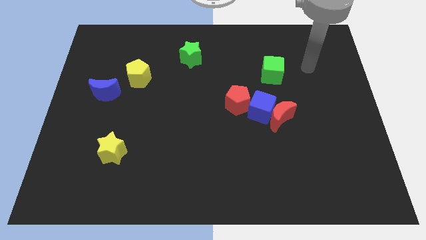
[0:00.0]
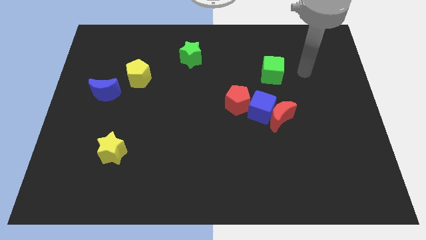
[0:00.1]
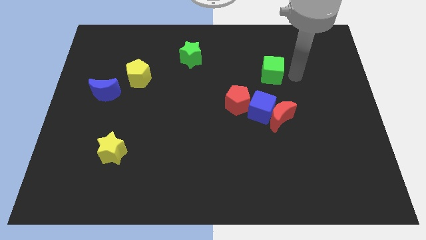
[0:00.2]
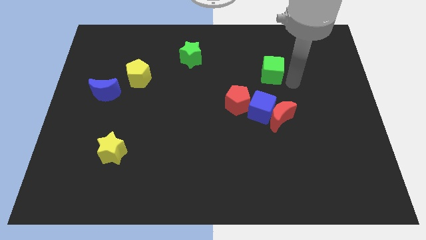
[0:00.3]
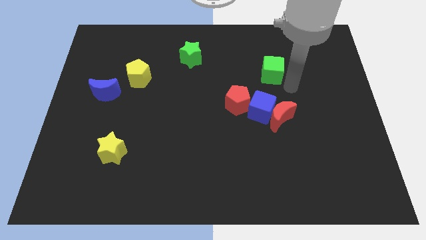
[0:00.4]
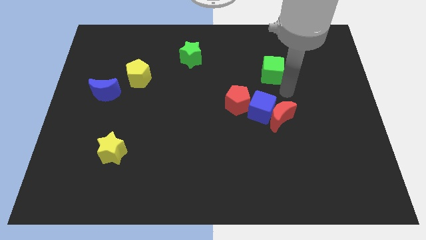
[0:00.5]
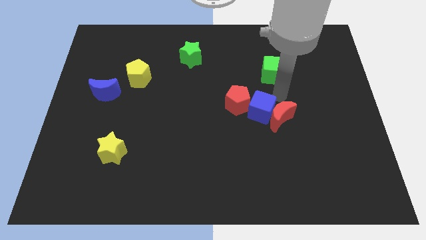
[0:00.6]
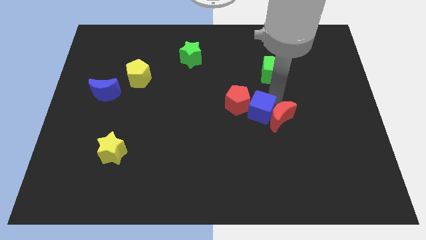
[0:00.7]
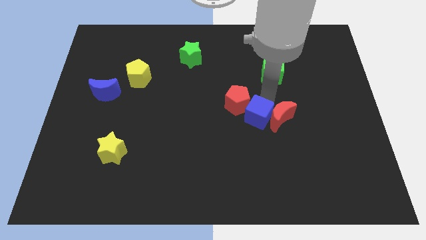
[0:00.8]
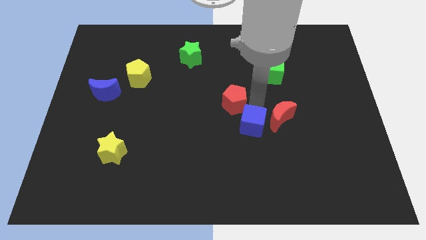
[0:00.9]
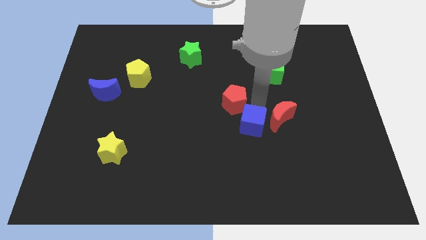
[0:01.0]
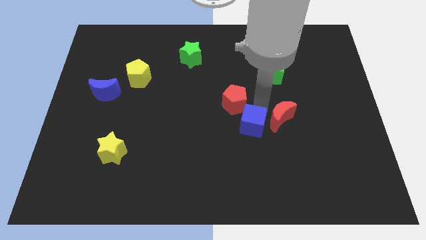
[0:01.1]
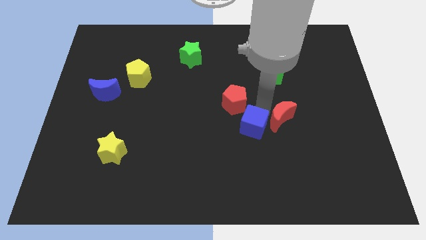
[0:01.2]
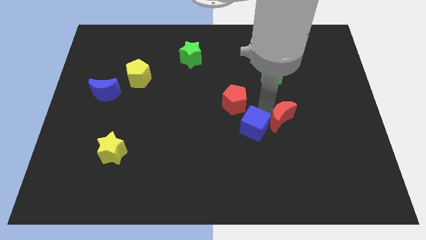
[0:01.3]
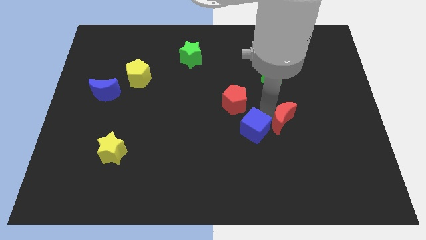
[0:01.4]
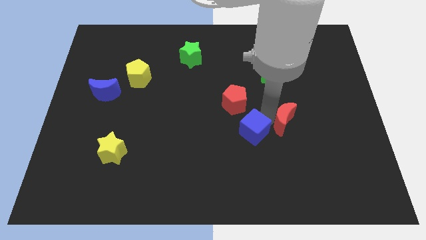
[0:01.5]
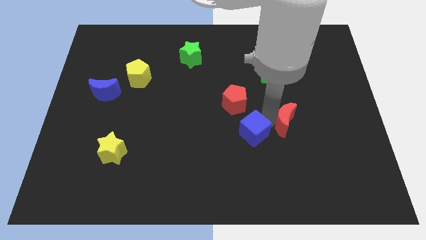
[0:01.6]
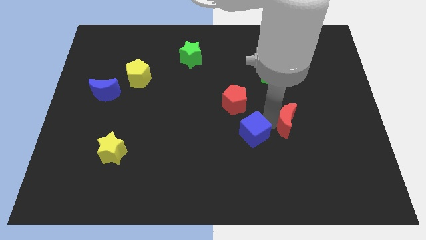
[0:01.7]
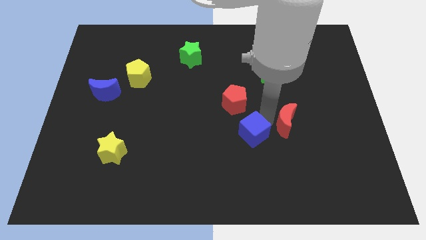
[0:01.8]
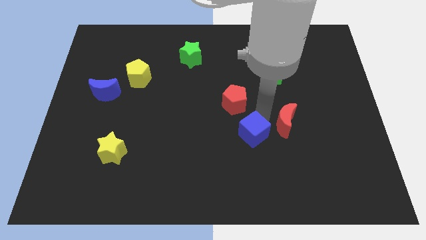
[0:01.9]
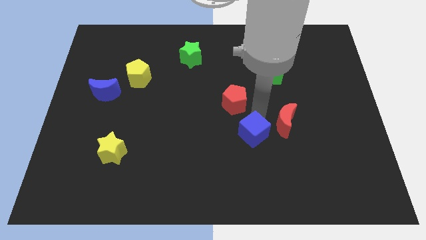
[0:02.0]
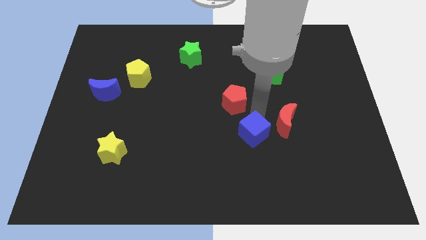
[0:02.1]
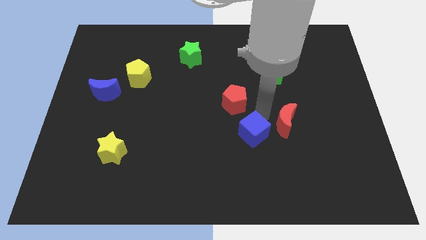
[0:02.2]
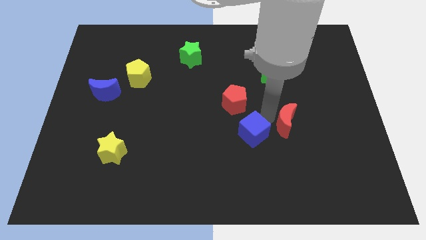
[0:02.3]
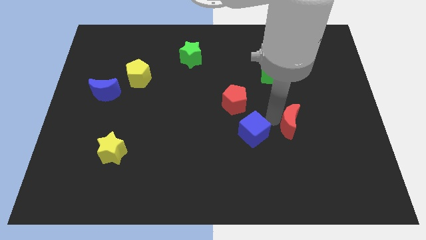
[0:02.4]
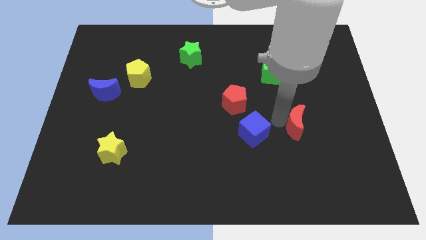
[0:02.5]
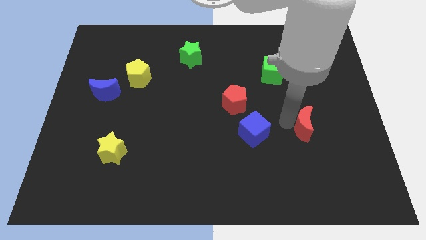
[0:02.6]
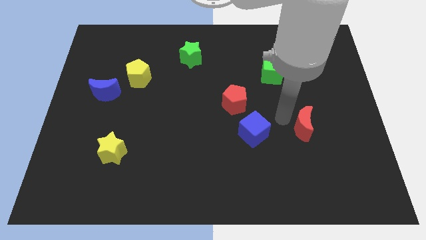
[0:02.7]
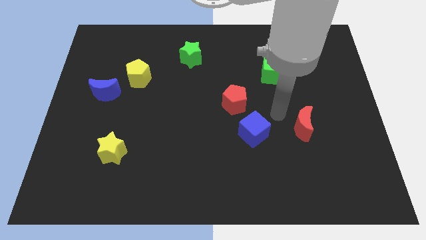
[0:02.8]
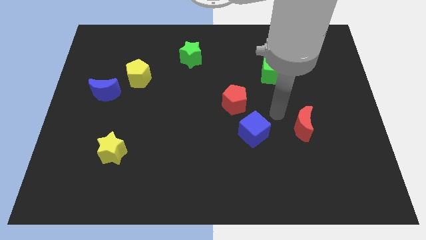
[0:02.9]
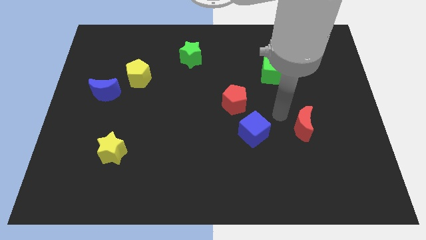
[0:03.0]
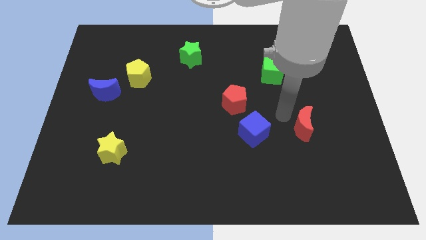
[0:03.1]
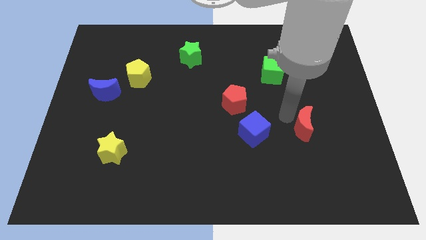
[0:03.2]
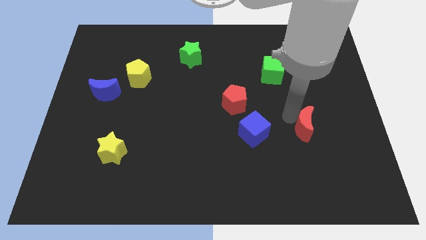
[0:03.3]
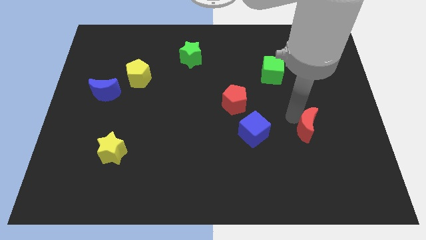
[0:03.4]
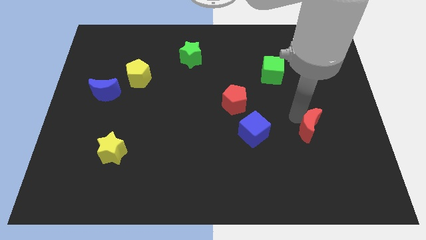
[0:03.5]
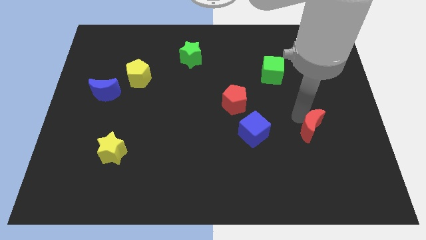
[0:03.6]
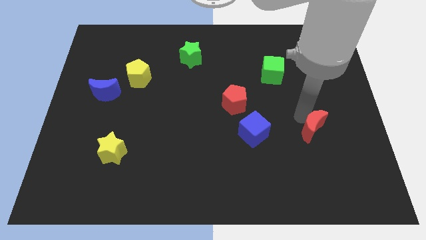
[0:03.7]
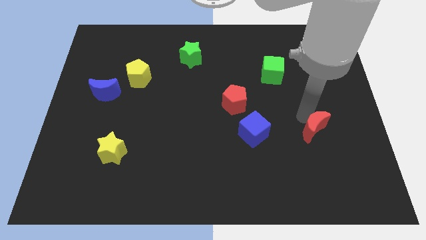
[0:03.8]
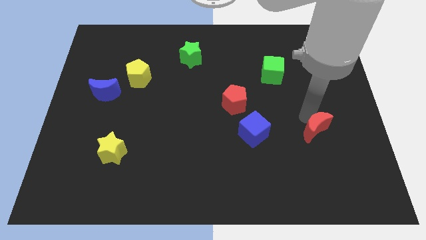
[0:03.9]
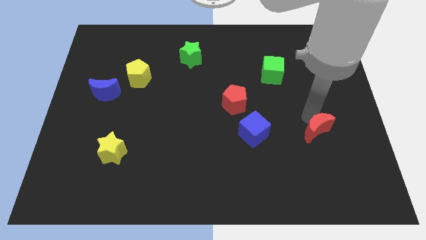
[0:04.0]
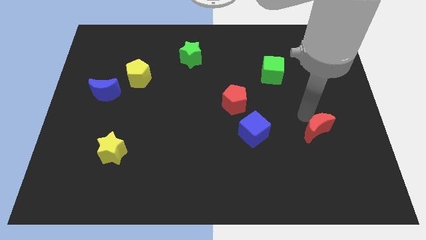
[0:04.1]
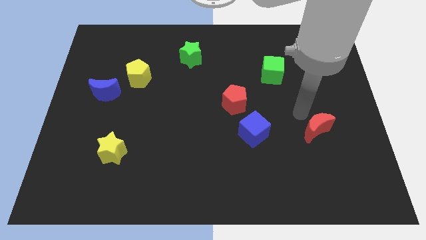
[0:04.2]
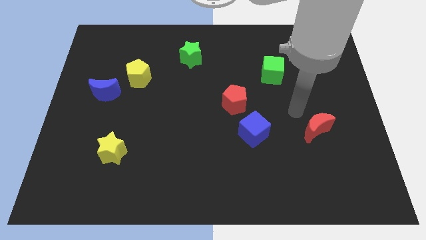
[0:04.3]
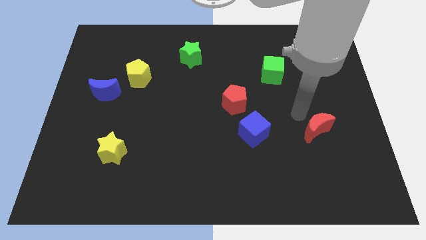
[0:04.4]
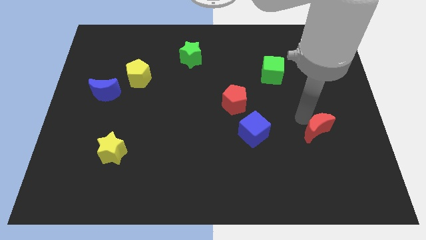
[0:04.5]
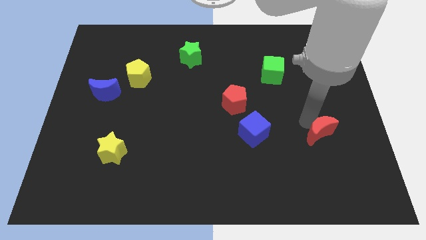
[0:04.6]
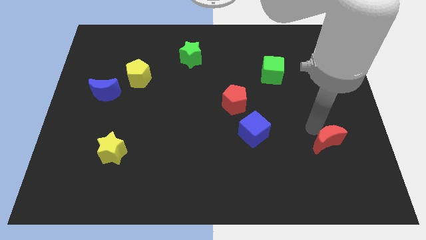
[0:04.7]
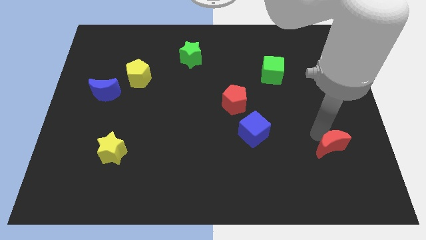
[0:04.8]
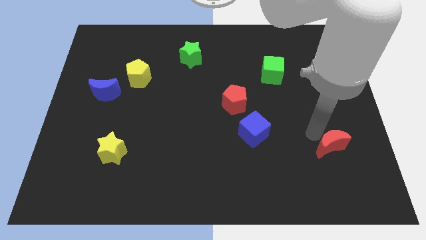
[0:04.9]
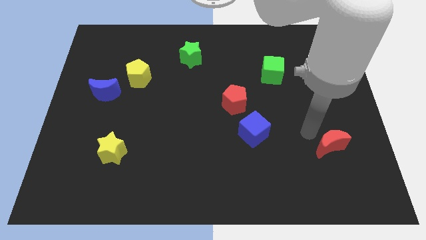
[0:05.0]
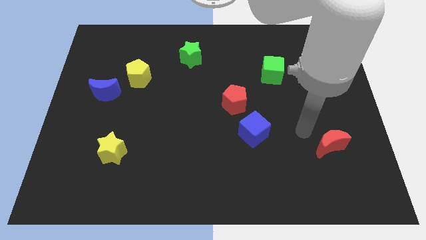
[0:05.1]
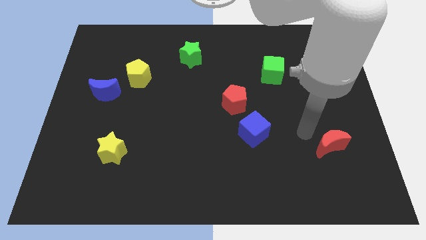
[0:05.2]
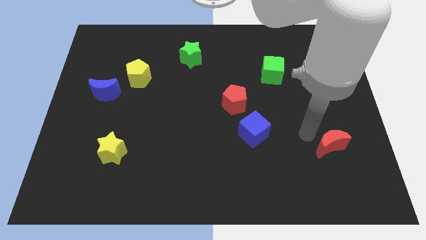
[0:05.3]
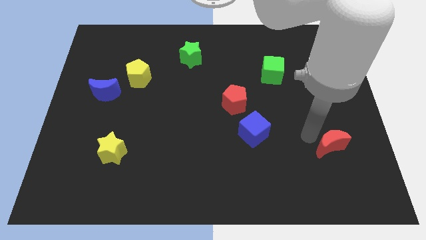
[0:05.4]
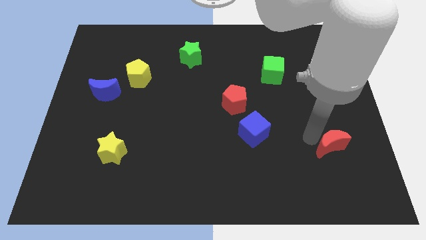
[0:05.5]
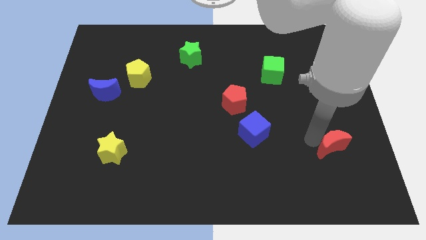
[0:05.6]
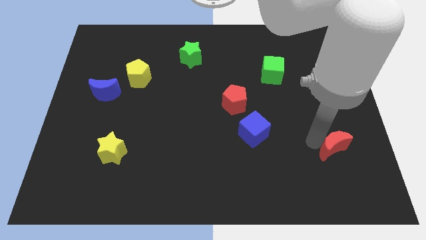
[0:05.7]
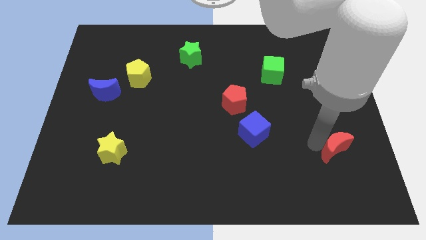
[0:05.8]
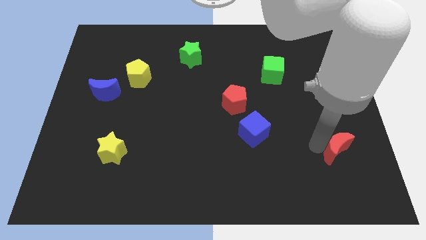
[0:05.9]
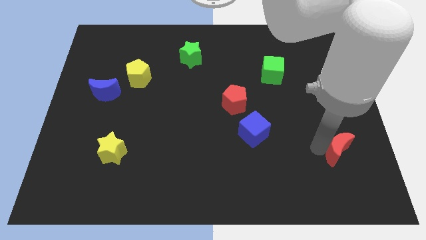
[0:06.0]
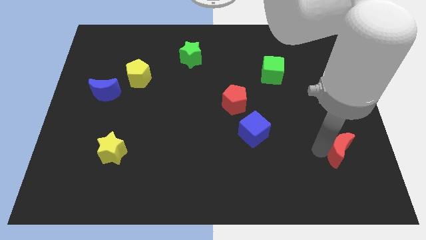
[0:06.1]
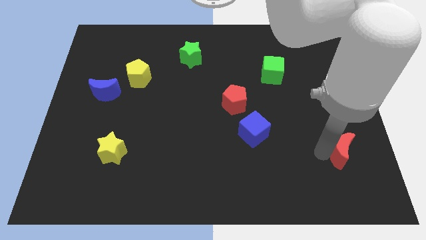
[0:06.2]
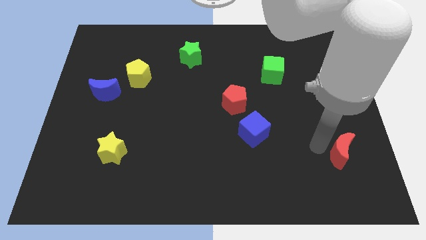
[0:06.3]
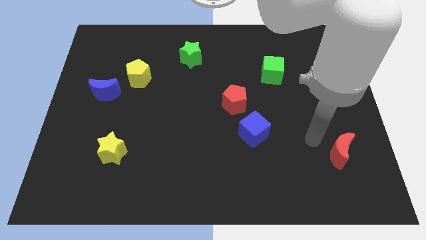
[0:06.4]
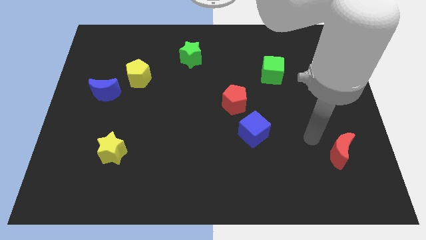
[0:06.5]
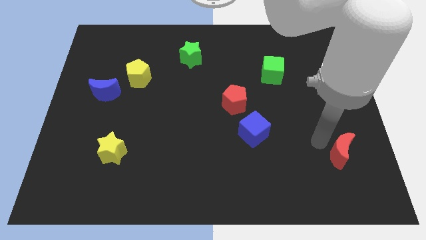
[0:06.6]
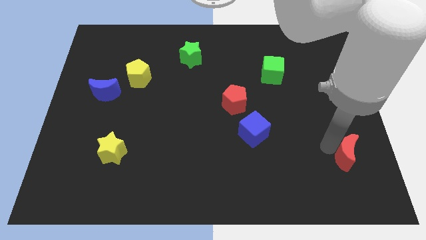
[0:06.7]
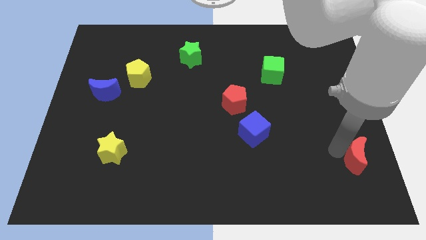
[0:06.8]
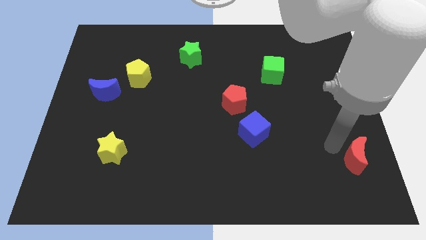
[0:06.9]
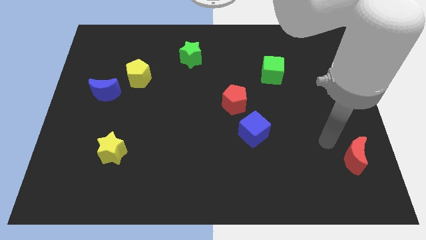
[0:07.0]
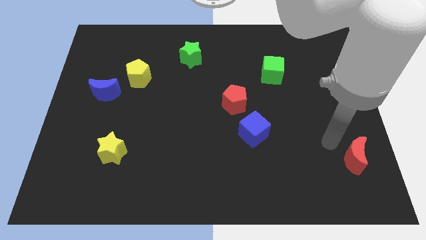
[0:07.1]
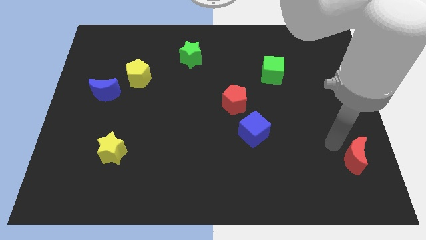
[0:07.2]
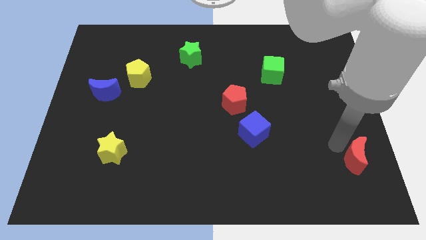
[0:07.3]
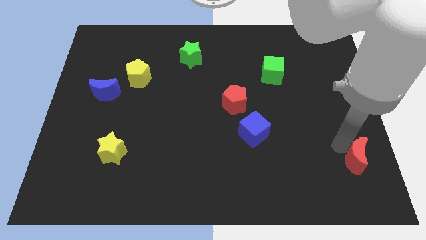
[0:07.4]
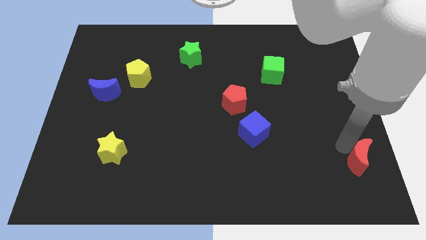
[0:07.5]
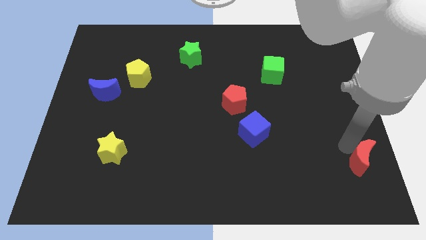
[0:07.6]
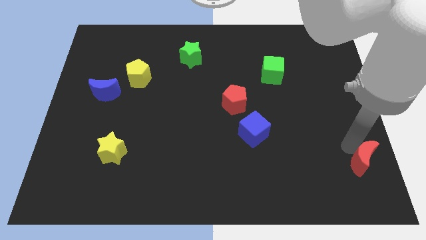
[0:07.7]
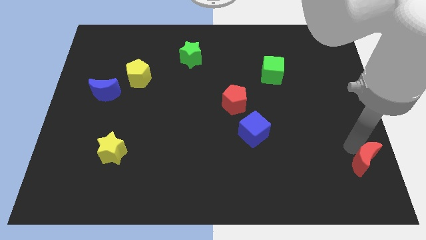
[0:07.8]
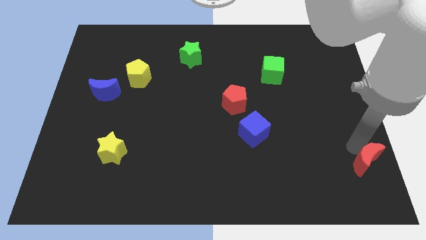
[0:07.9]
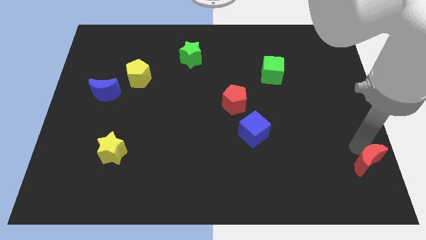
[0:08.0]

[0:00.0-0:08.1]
put the red moon to the lower right corner
